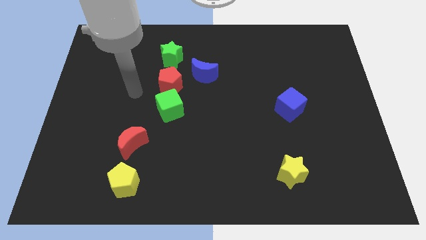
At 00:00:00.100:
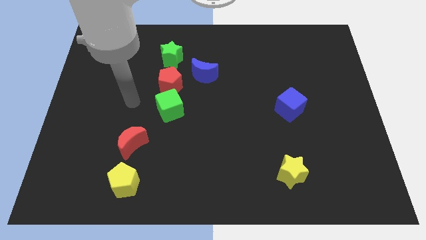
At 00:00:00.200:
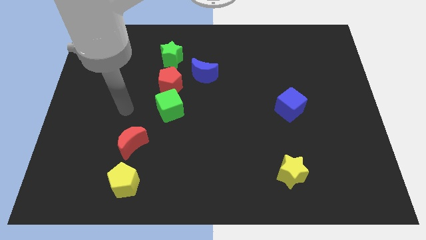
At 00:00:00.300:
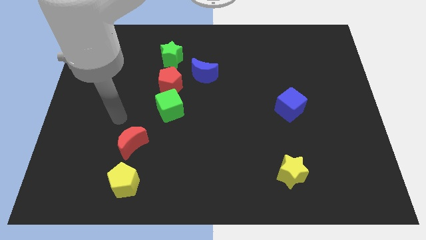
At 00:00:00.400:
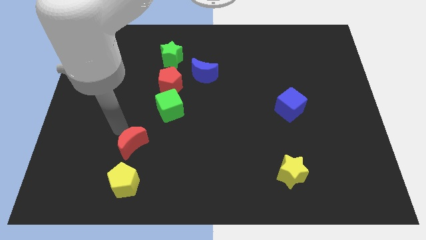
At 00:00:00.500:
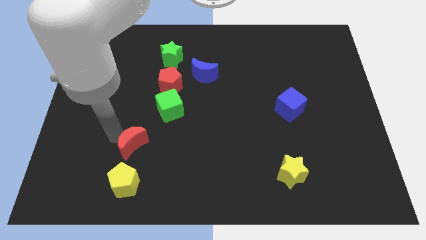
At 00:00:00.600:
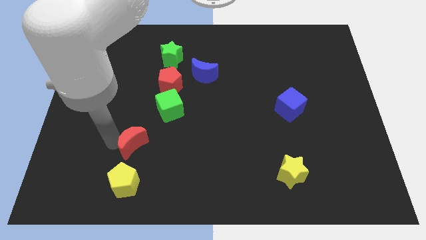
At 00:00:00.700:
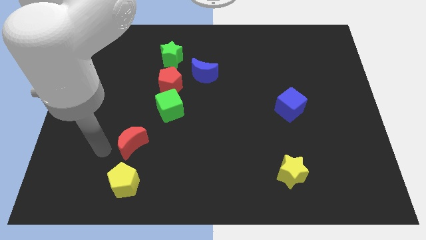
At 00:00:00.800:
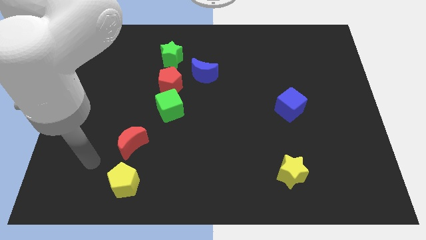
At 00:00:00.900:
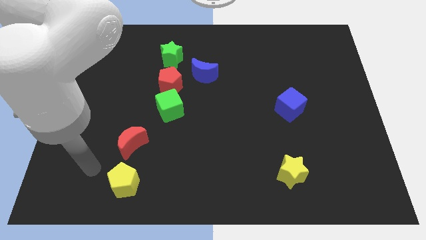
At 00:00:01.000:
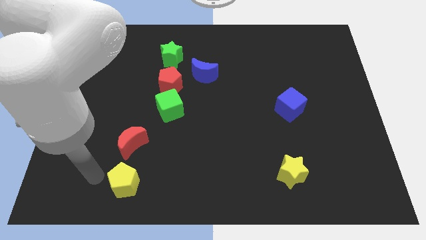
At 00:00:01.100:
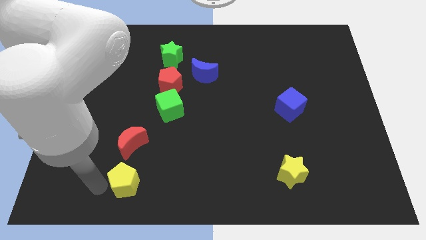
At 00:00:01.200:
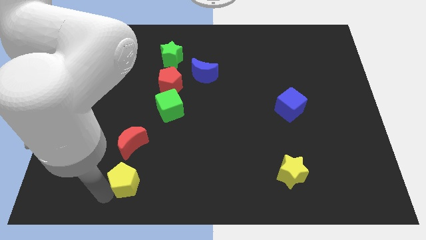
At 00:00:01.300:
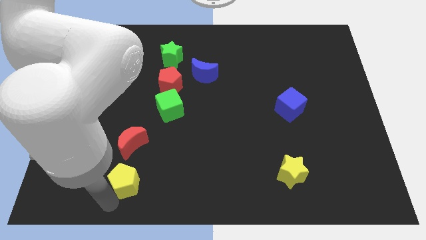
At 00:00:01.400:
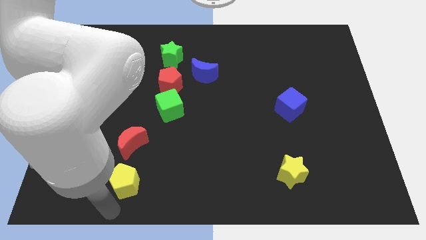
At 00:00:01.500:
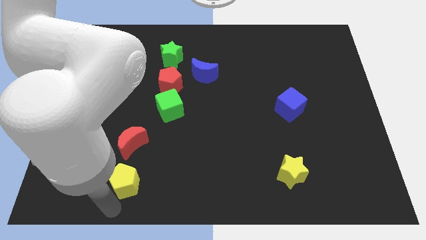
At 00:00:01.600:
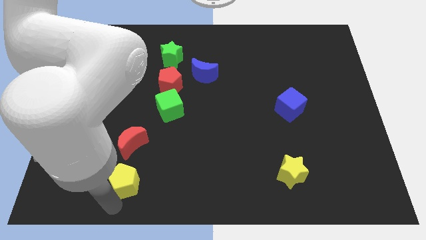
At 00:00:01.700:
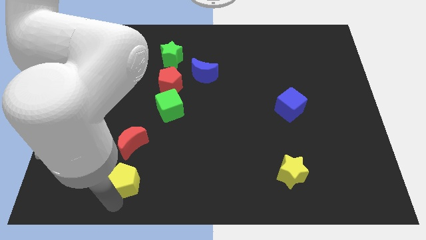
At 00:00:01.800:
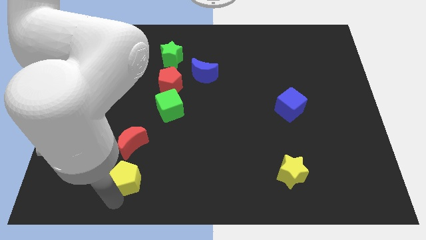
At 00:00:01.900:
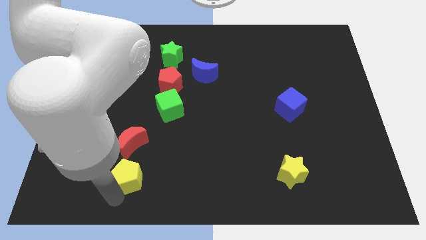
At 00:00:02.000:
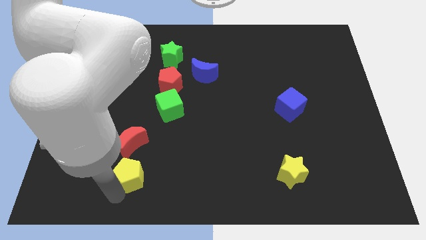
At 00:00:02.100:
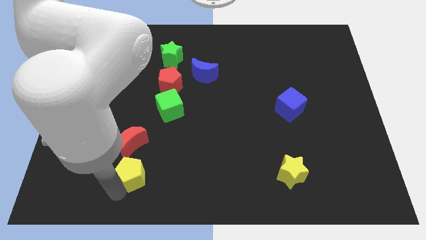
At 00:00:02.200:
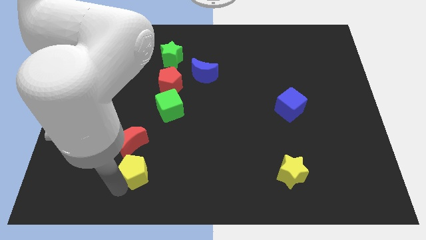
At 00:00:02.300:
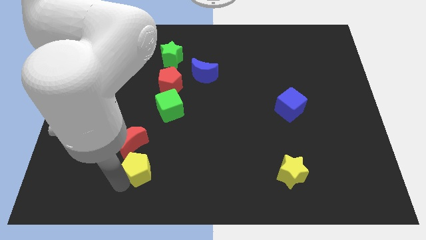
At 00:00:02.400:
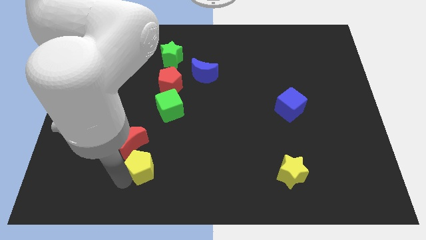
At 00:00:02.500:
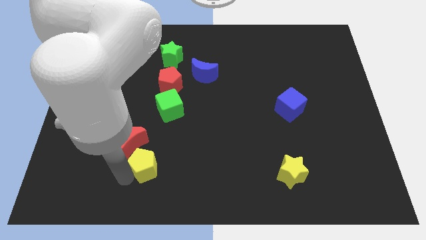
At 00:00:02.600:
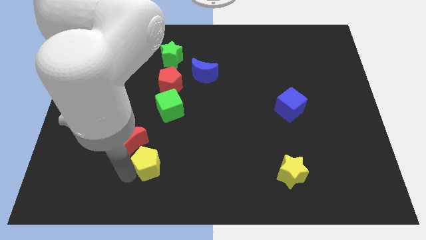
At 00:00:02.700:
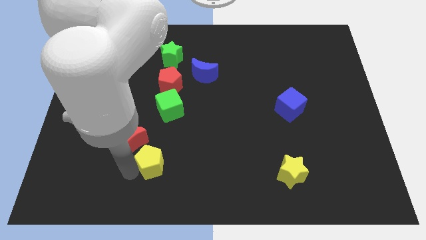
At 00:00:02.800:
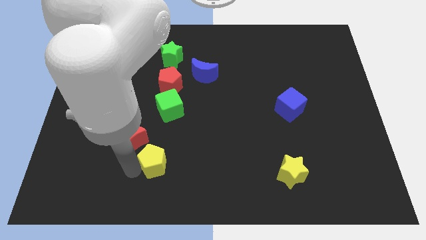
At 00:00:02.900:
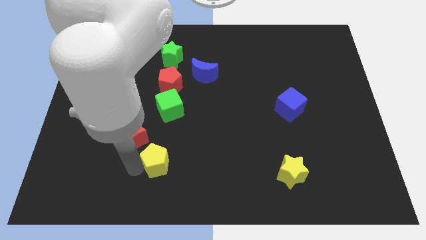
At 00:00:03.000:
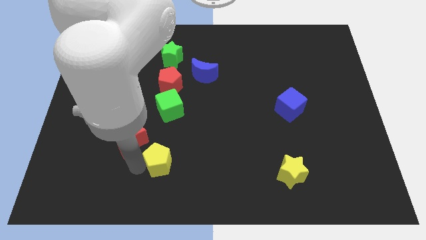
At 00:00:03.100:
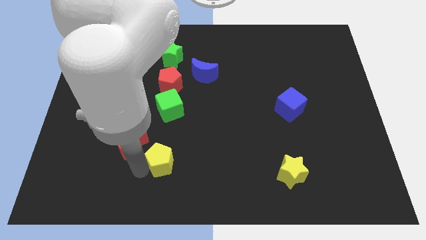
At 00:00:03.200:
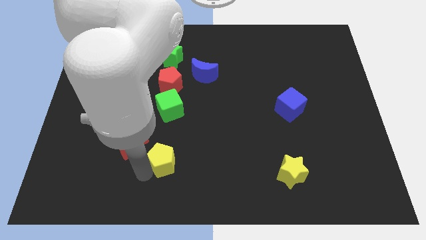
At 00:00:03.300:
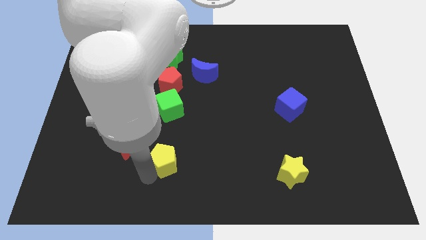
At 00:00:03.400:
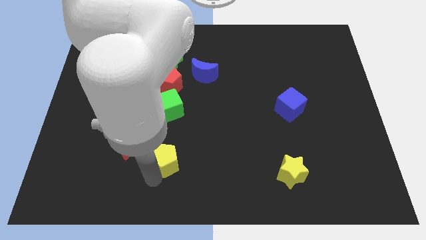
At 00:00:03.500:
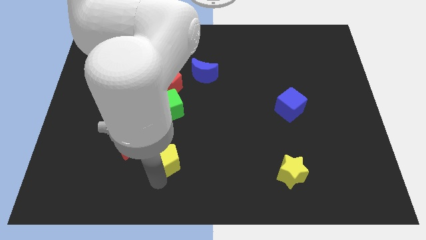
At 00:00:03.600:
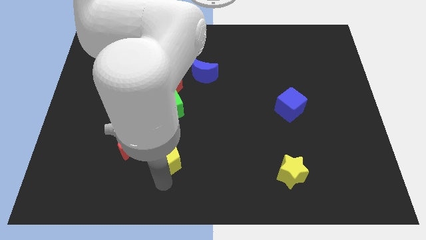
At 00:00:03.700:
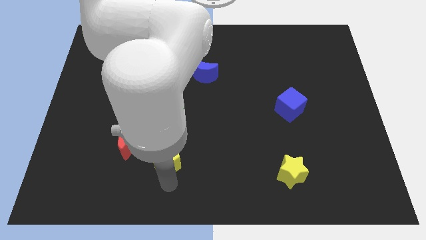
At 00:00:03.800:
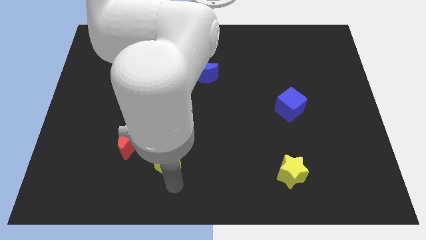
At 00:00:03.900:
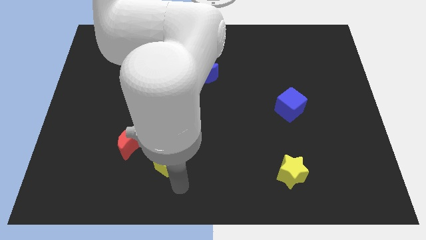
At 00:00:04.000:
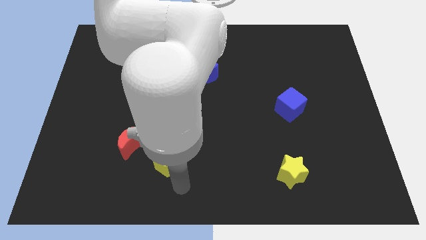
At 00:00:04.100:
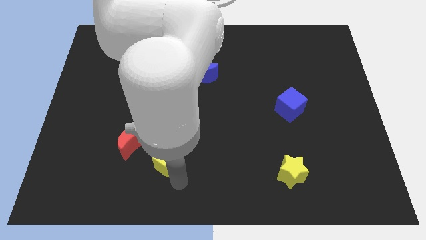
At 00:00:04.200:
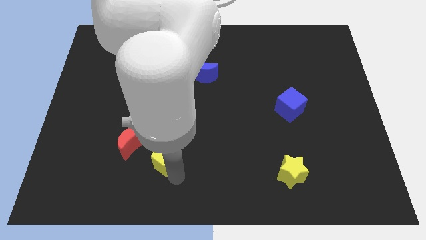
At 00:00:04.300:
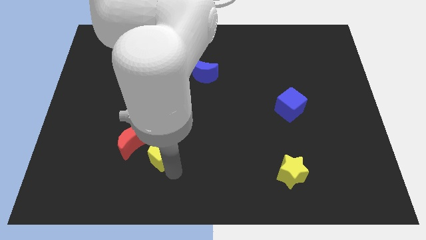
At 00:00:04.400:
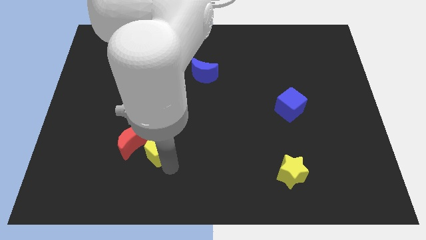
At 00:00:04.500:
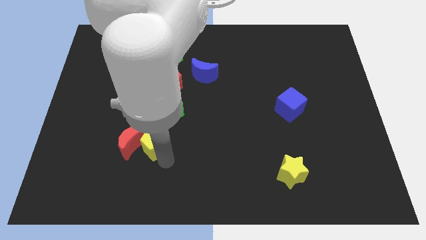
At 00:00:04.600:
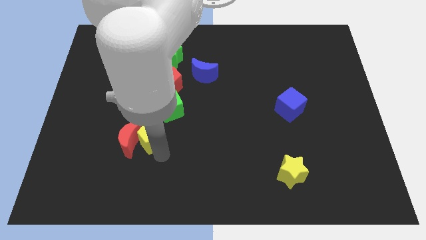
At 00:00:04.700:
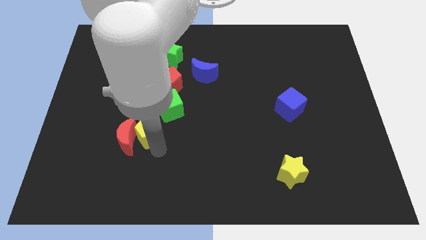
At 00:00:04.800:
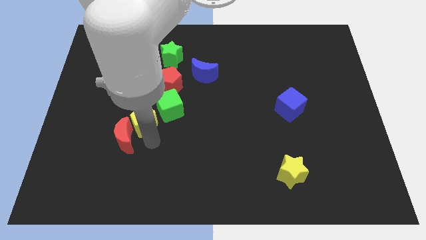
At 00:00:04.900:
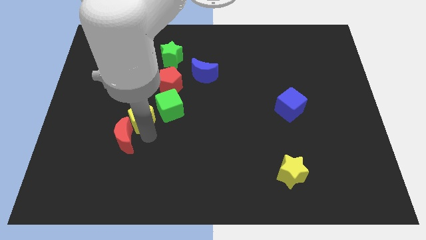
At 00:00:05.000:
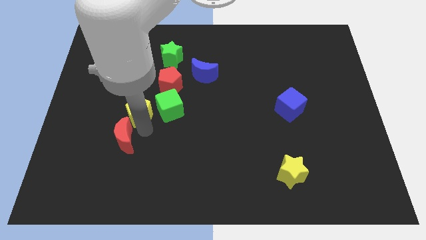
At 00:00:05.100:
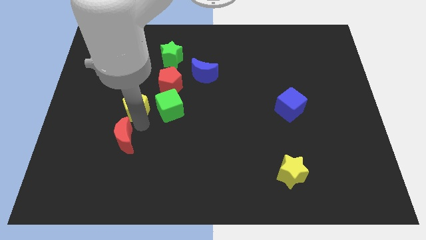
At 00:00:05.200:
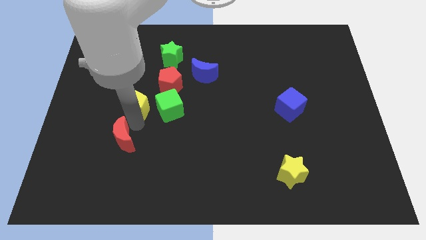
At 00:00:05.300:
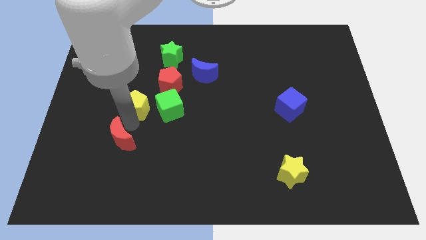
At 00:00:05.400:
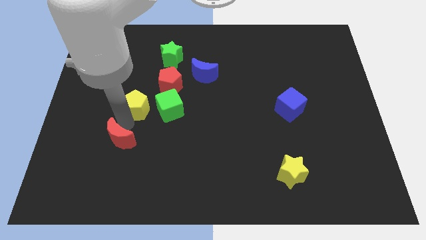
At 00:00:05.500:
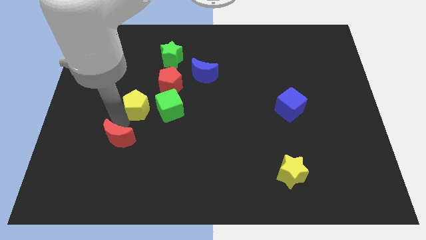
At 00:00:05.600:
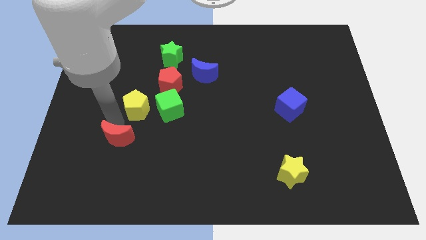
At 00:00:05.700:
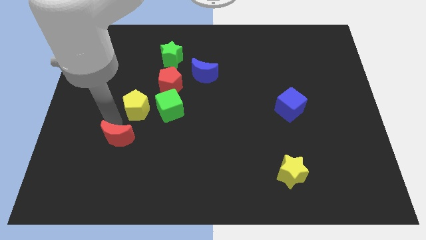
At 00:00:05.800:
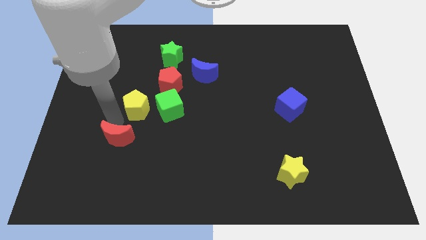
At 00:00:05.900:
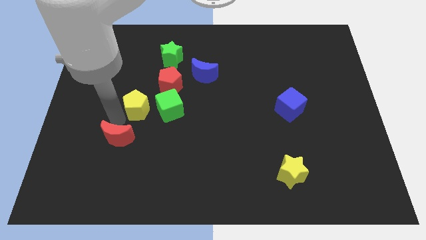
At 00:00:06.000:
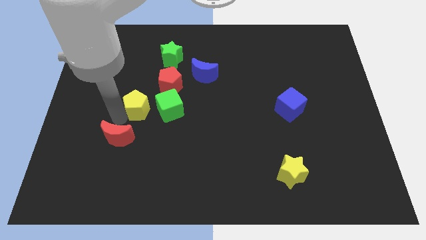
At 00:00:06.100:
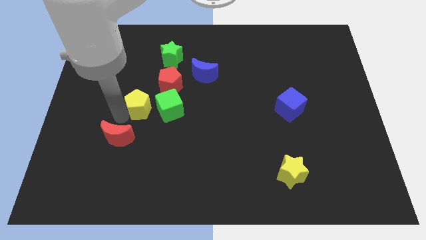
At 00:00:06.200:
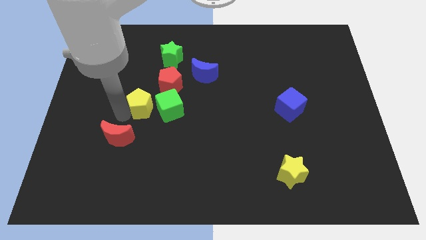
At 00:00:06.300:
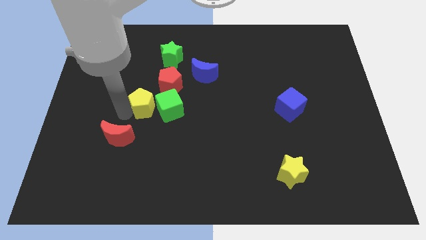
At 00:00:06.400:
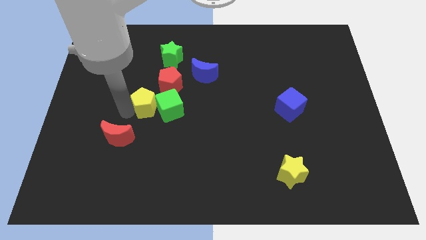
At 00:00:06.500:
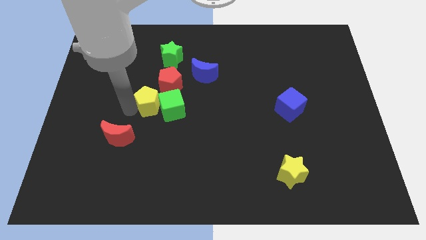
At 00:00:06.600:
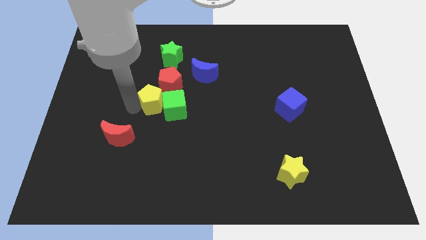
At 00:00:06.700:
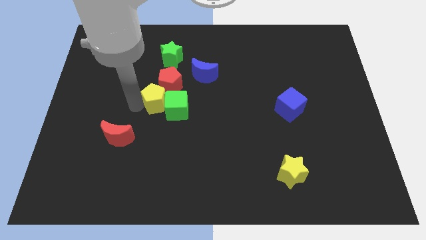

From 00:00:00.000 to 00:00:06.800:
push the yellow pentagon close to the red pentagon

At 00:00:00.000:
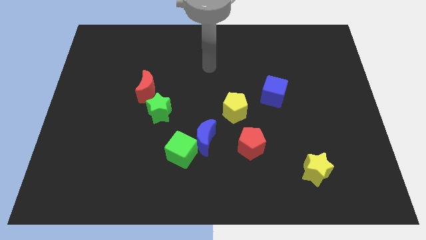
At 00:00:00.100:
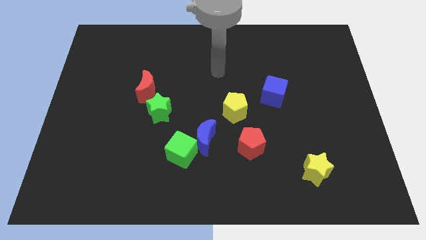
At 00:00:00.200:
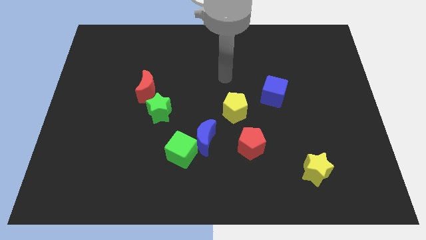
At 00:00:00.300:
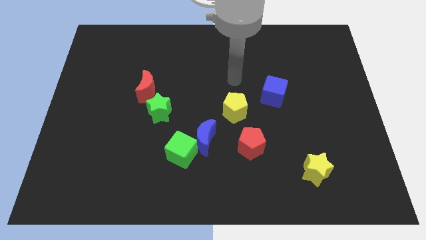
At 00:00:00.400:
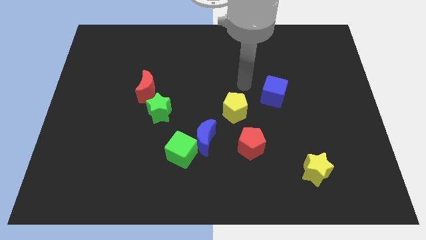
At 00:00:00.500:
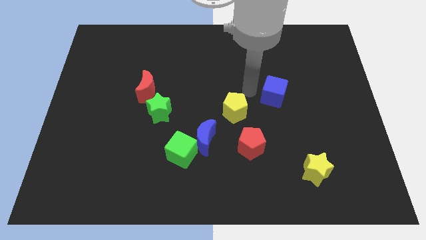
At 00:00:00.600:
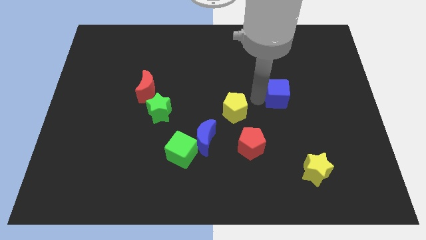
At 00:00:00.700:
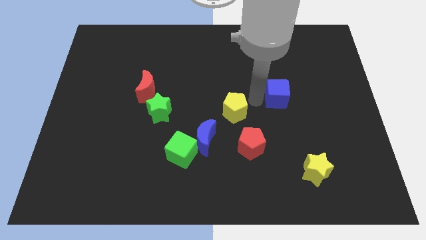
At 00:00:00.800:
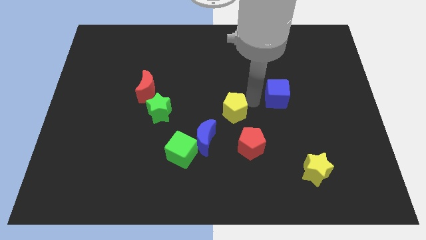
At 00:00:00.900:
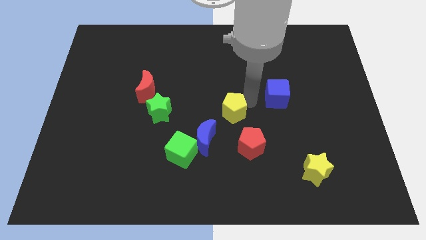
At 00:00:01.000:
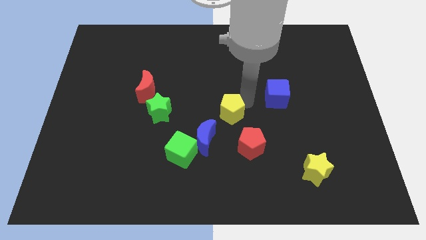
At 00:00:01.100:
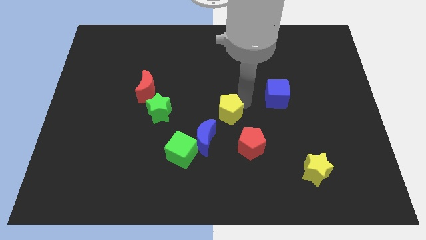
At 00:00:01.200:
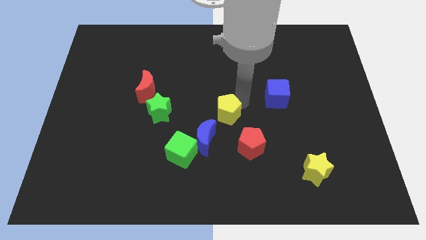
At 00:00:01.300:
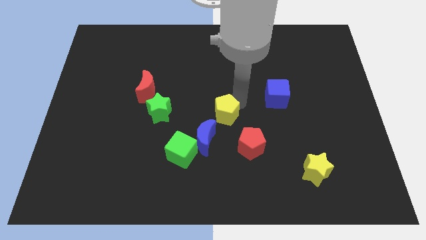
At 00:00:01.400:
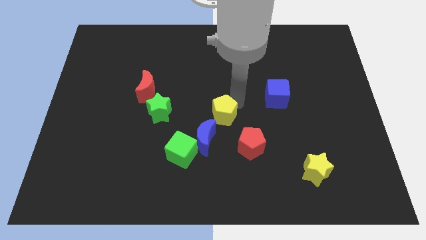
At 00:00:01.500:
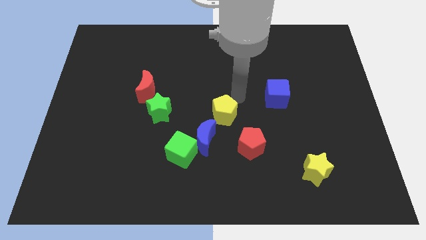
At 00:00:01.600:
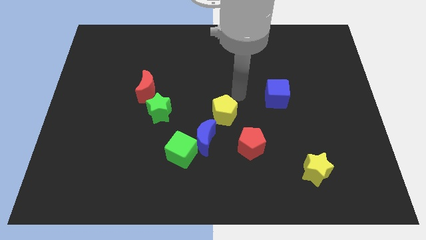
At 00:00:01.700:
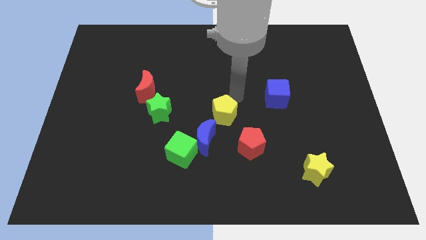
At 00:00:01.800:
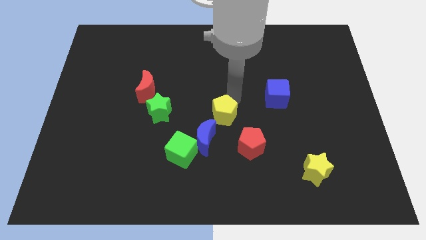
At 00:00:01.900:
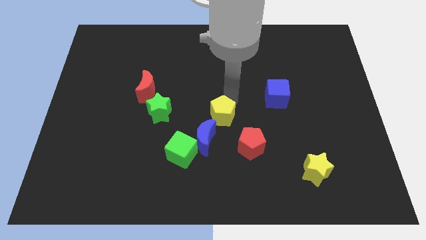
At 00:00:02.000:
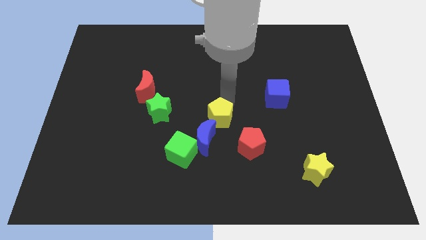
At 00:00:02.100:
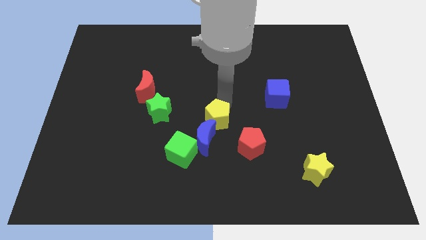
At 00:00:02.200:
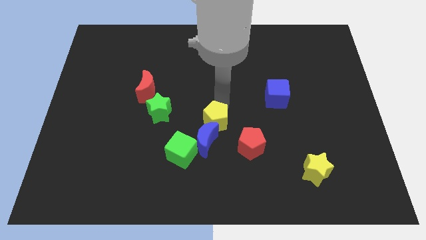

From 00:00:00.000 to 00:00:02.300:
put the yellow pentagon towards the blue moon
